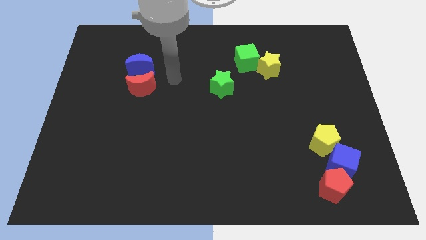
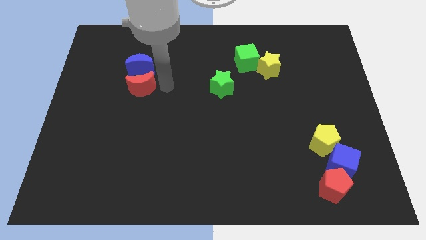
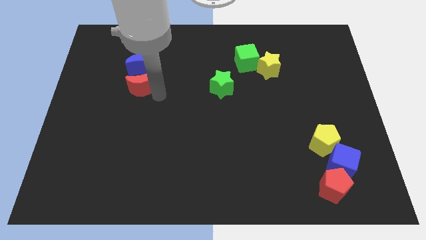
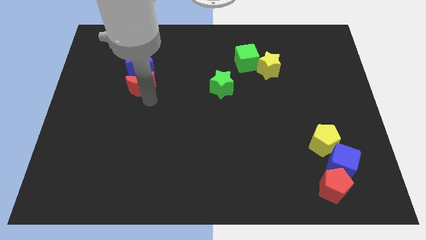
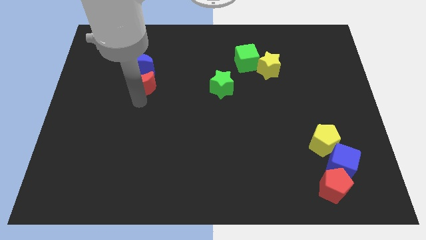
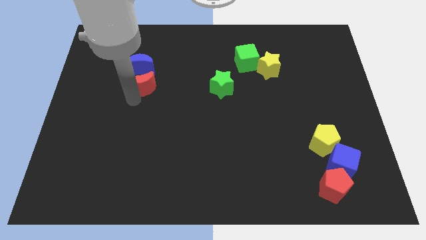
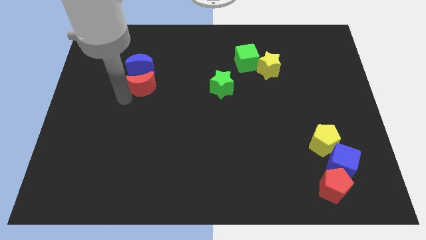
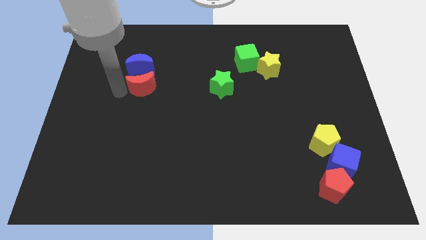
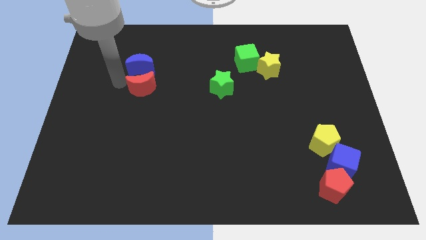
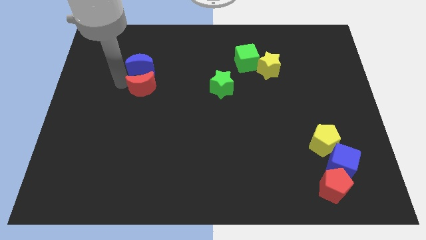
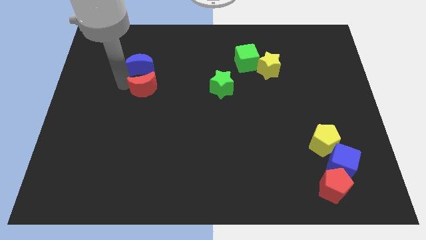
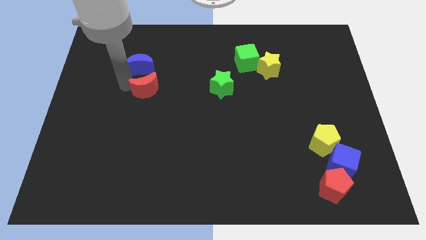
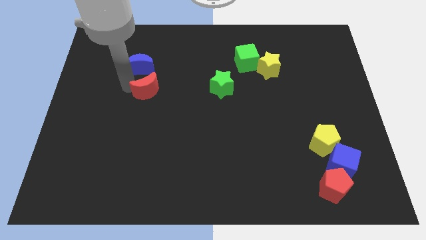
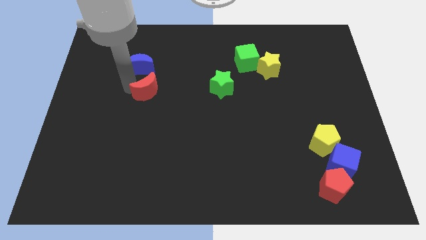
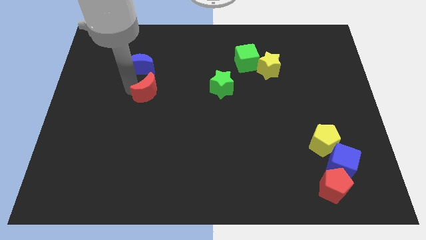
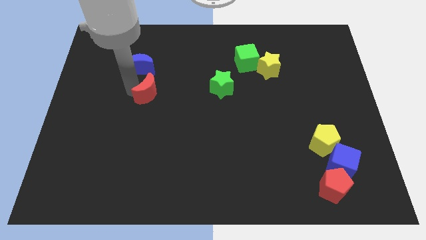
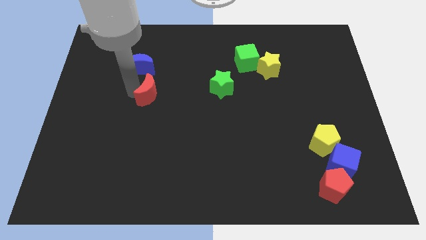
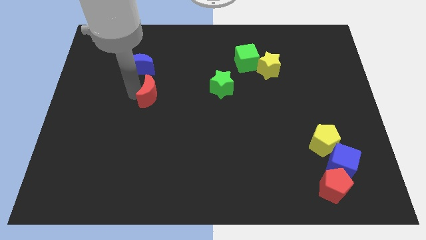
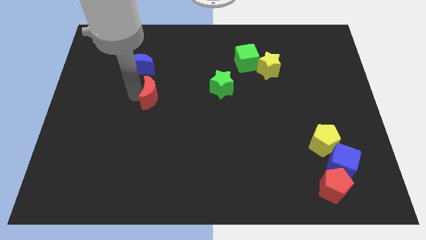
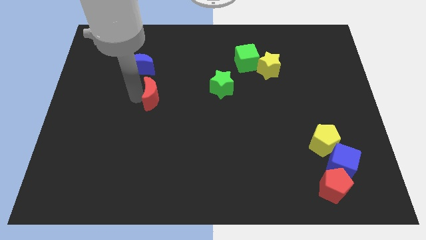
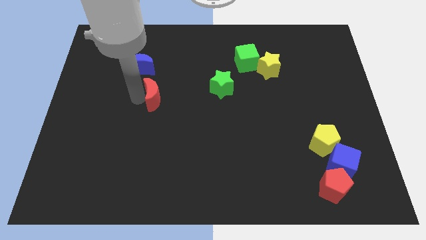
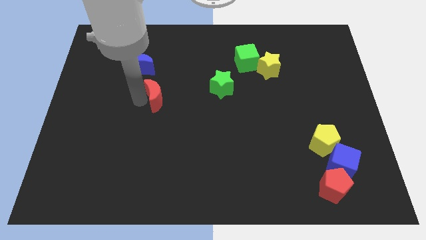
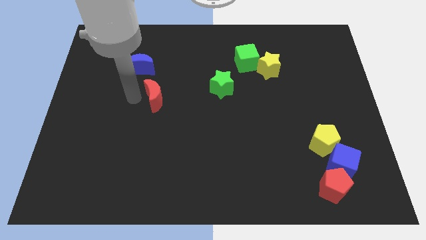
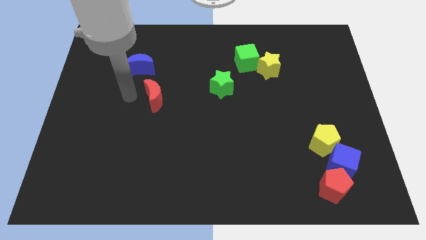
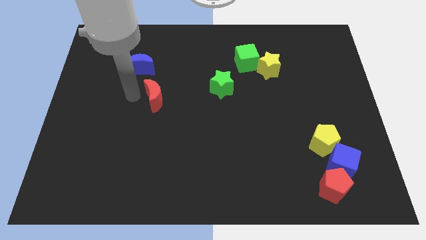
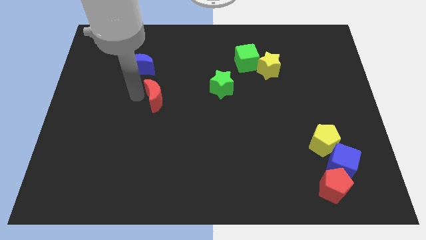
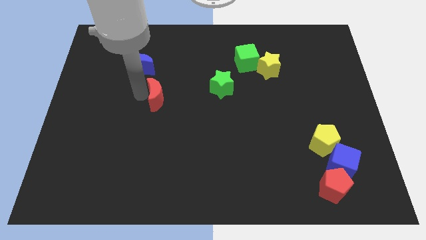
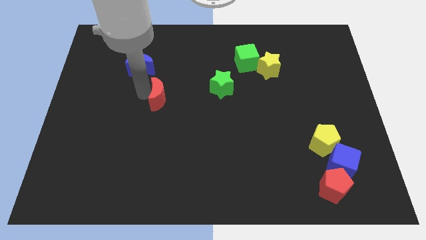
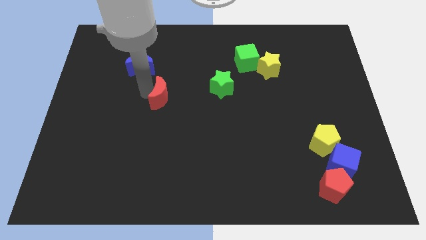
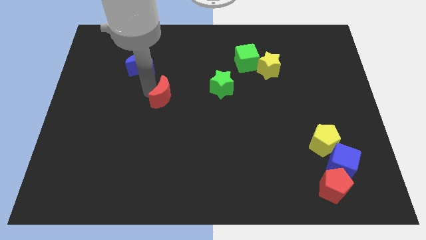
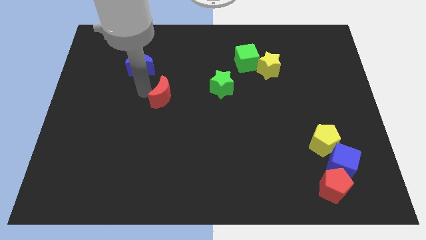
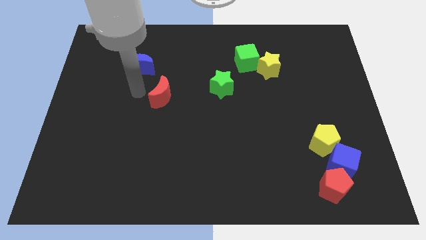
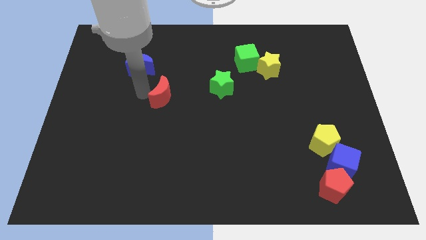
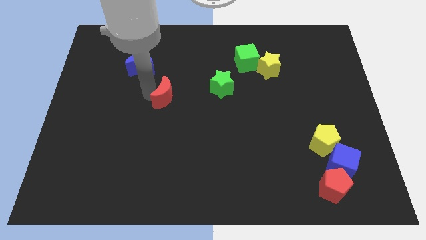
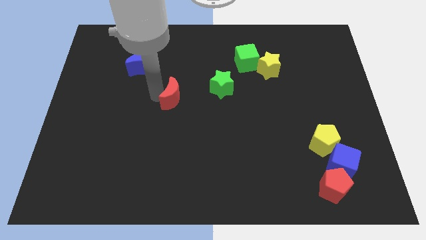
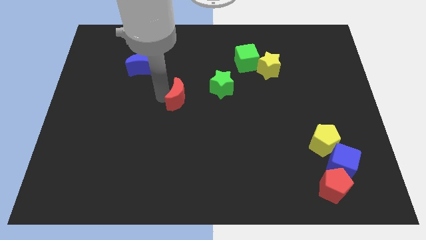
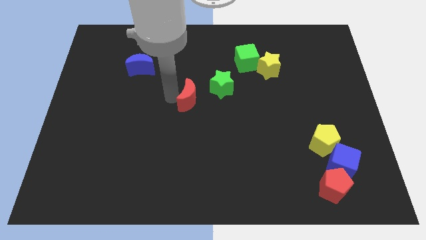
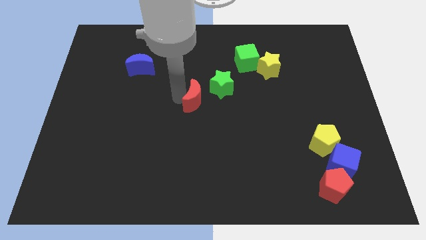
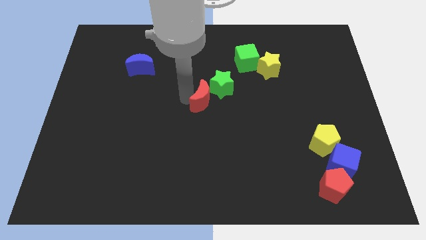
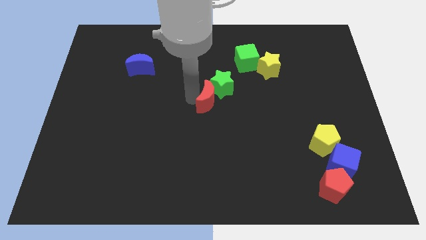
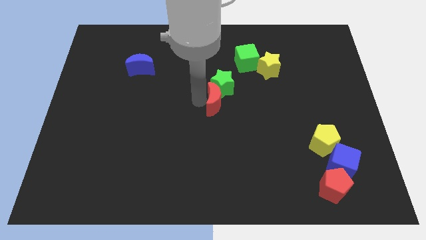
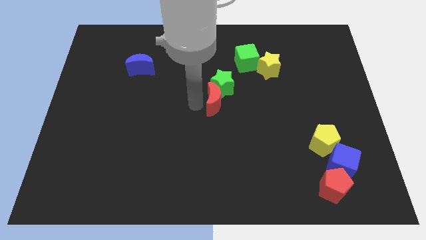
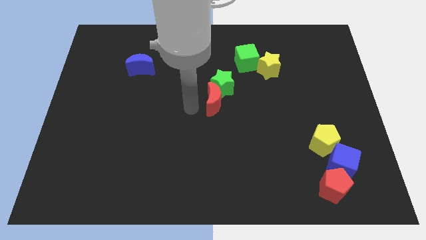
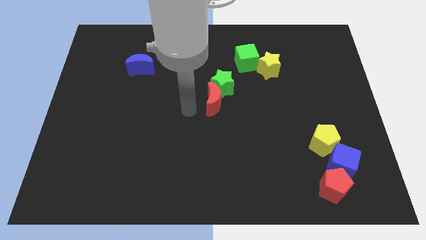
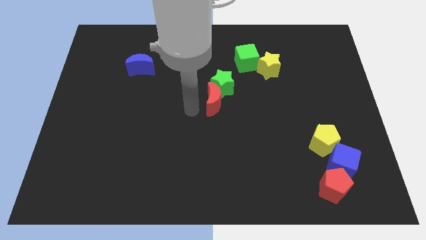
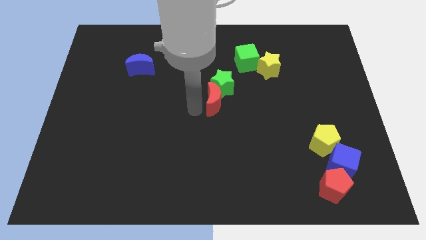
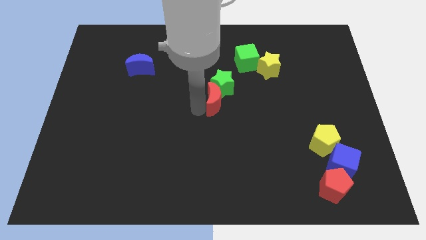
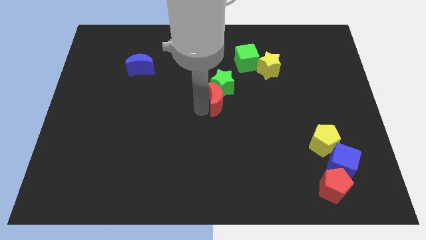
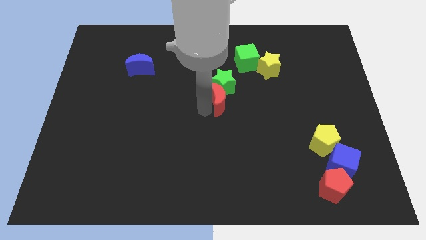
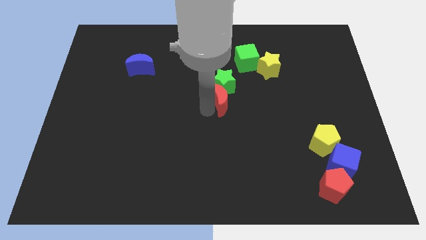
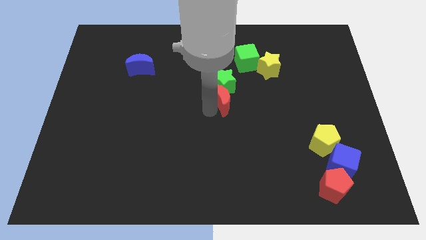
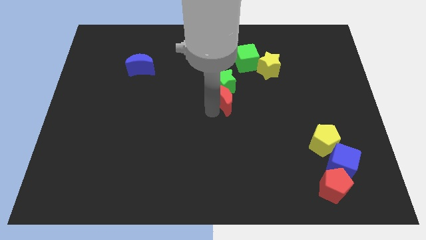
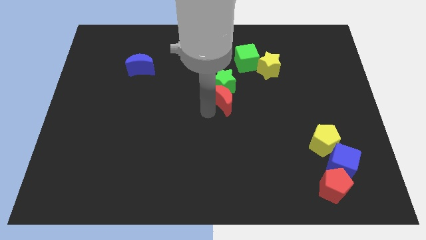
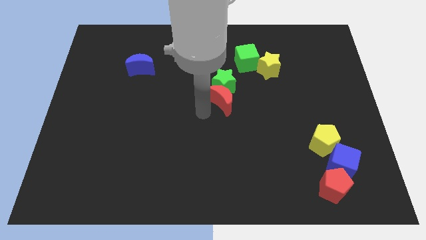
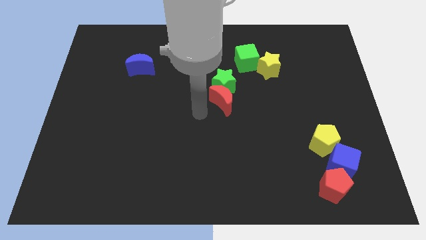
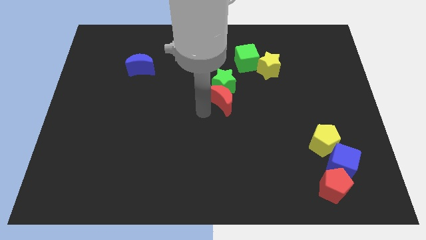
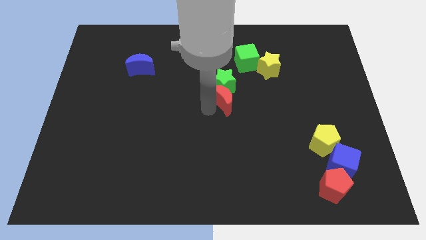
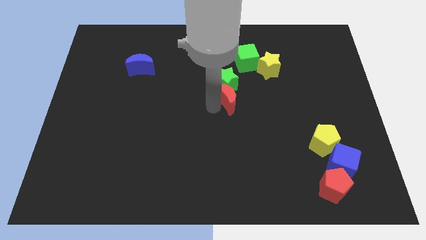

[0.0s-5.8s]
push the red moon to the right

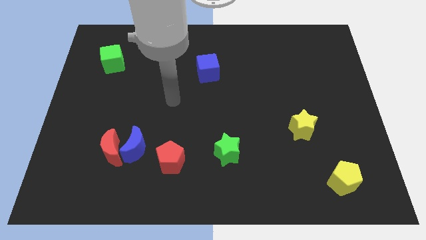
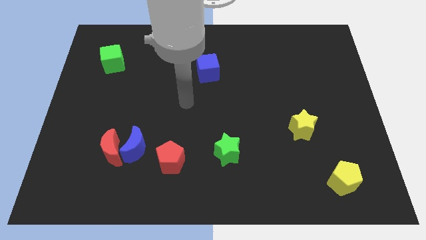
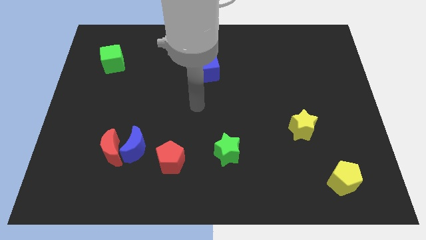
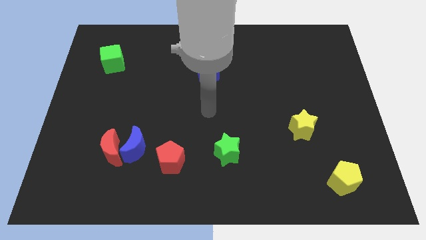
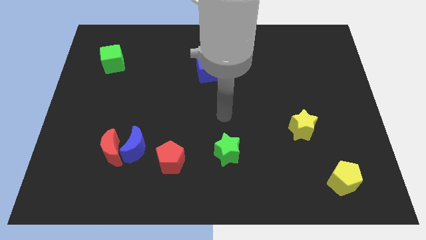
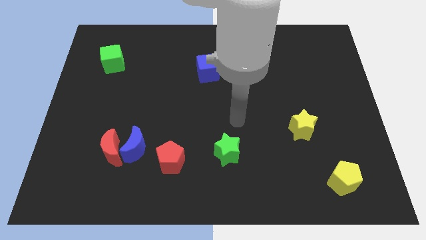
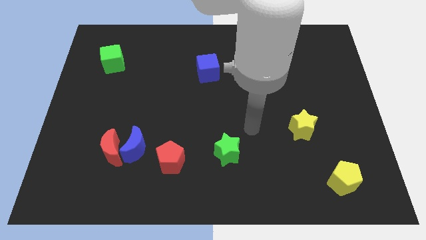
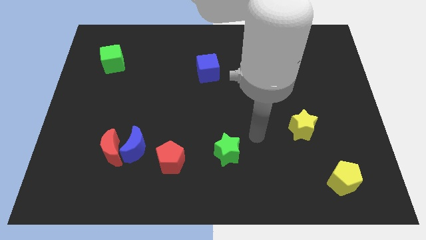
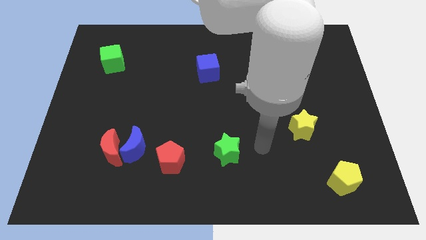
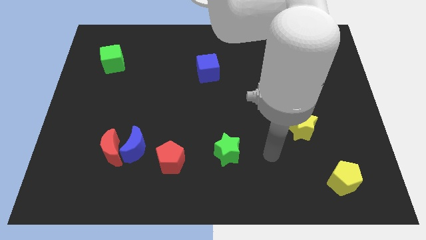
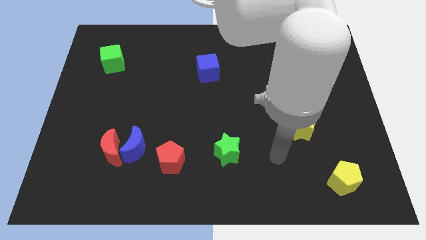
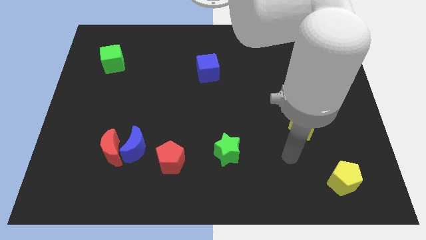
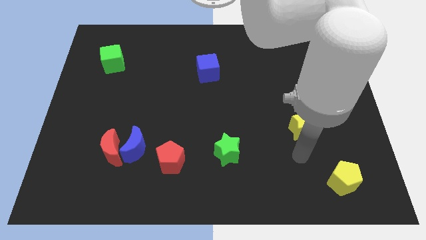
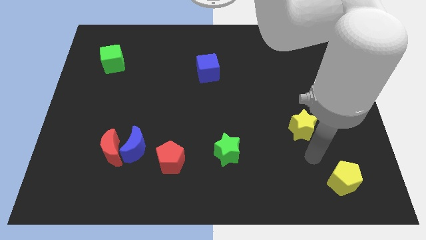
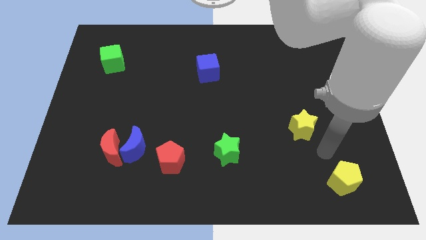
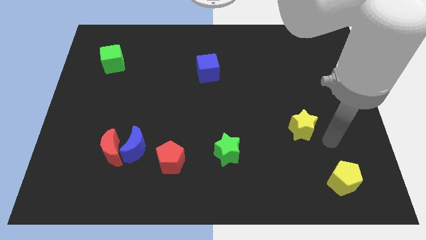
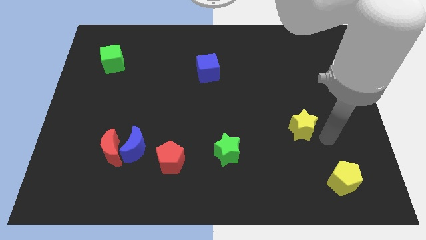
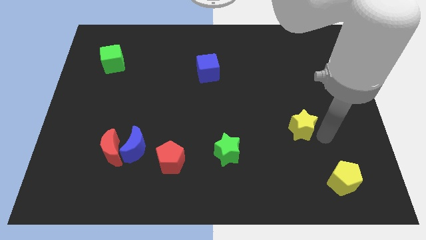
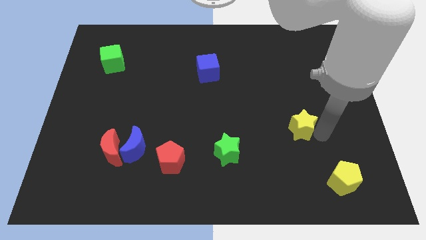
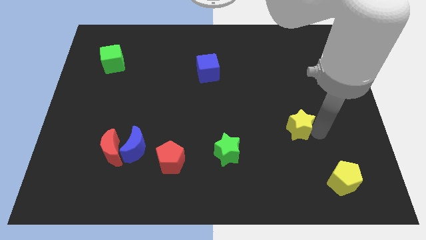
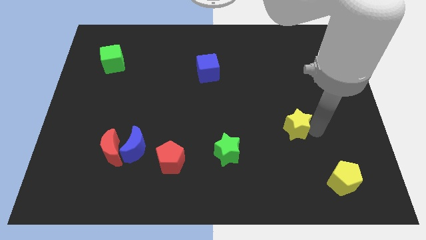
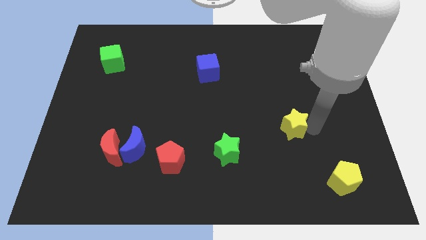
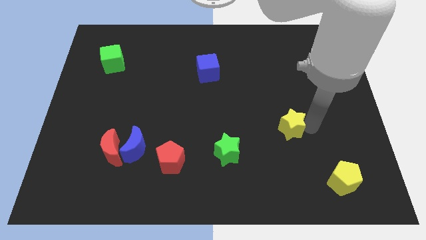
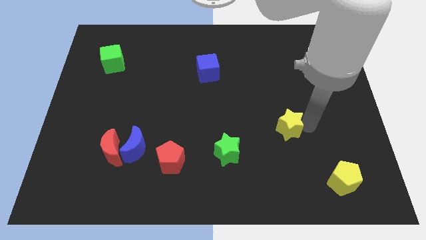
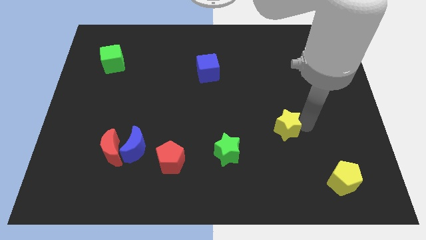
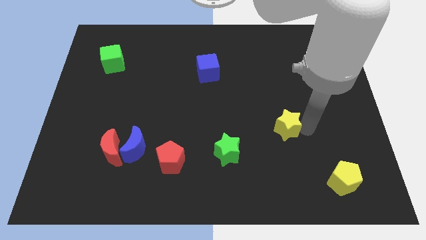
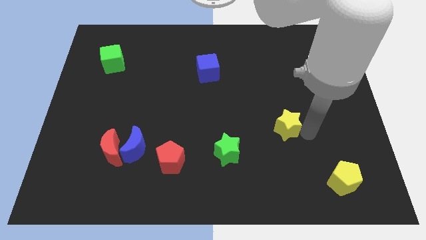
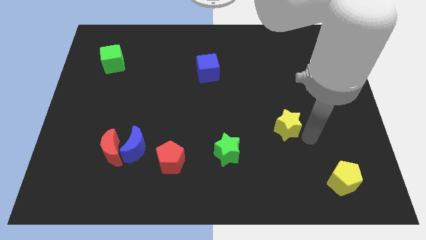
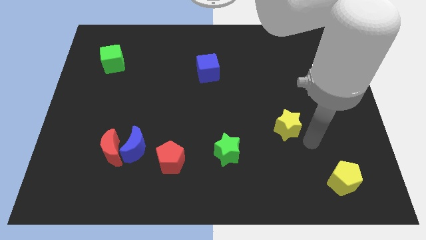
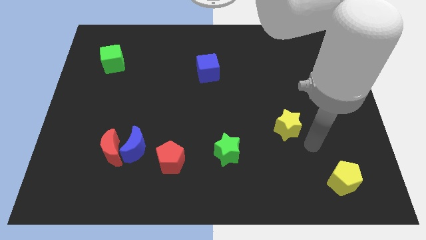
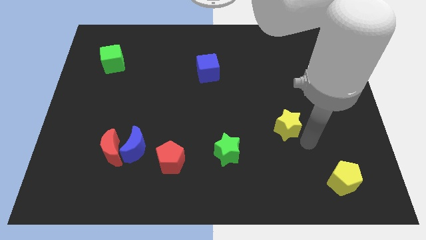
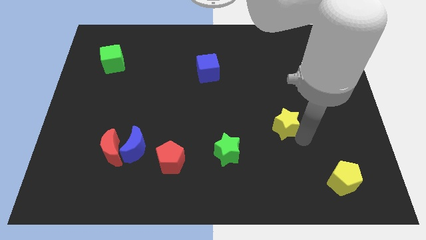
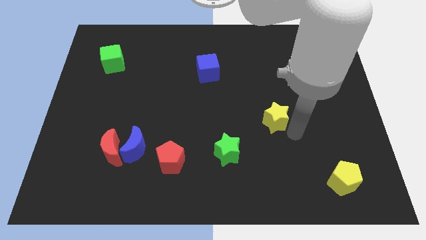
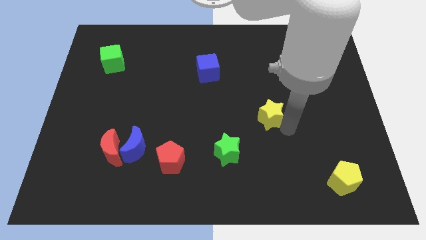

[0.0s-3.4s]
slightly slide the yellow star upwards and left
